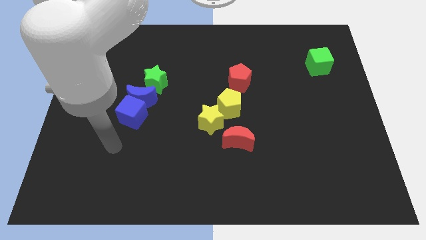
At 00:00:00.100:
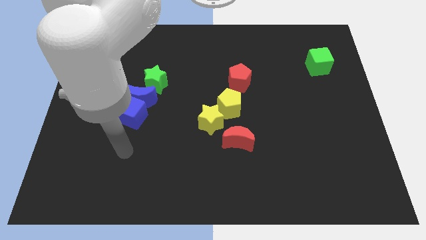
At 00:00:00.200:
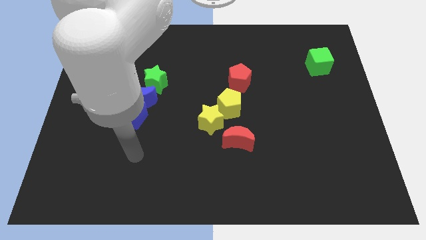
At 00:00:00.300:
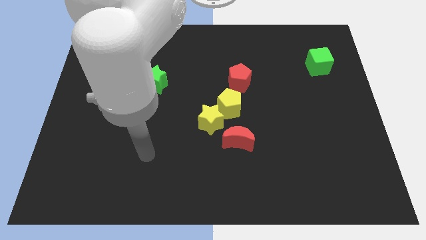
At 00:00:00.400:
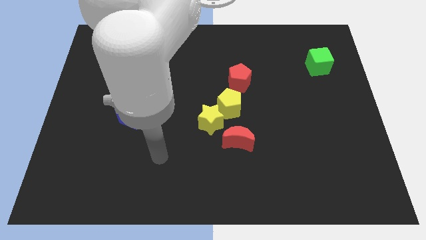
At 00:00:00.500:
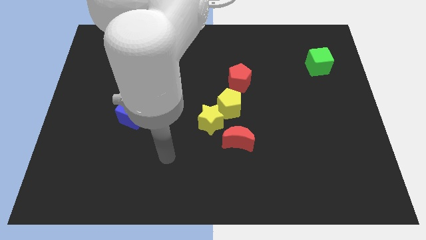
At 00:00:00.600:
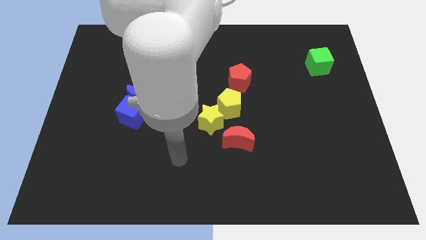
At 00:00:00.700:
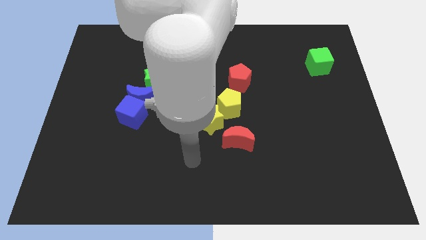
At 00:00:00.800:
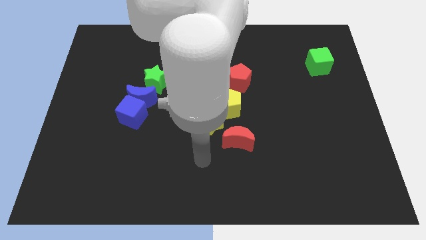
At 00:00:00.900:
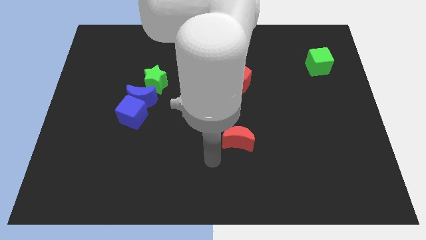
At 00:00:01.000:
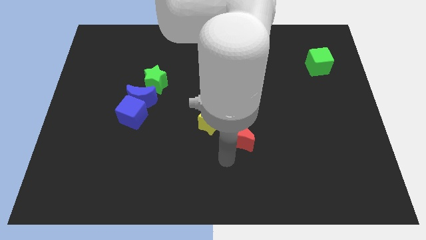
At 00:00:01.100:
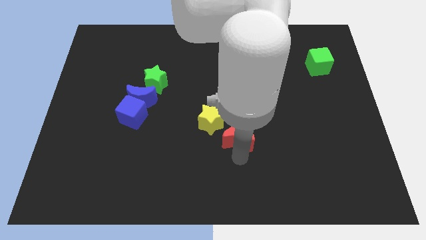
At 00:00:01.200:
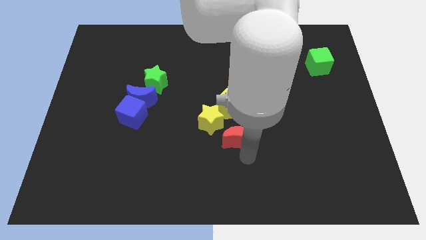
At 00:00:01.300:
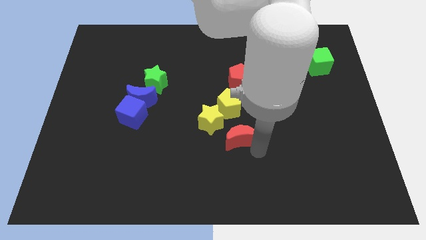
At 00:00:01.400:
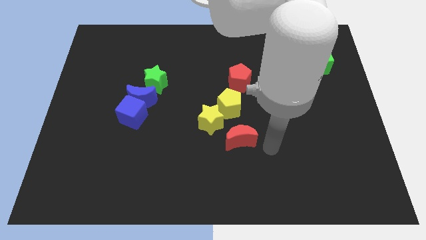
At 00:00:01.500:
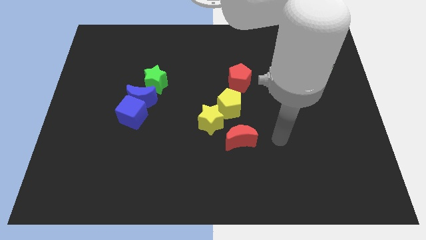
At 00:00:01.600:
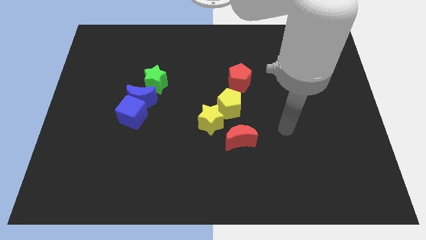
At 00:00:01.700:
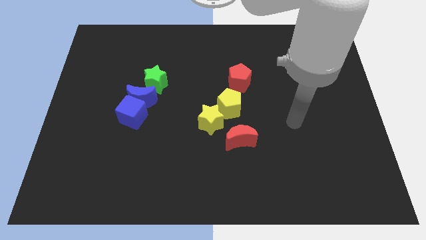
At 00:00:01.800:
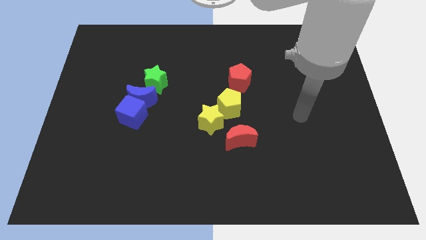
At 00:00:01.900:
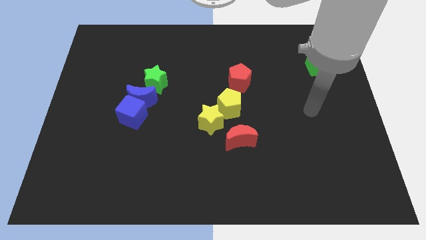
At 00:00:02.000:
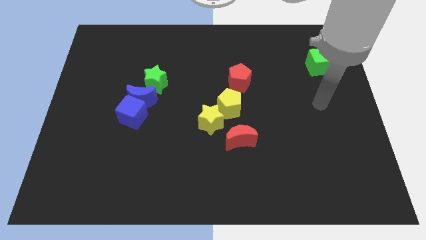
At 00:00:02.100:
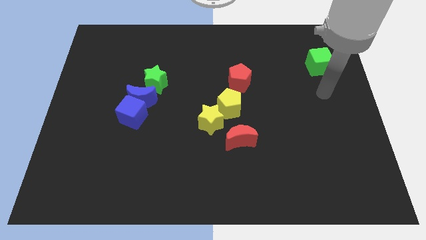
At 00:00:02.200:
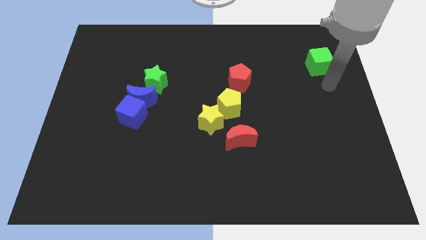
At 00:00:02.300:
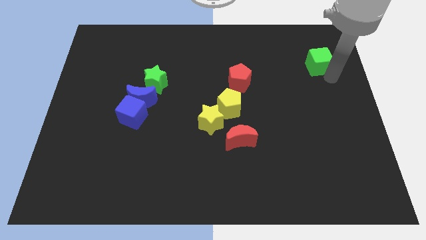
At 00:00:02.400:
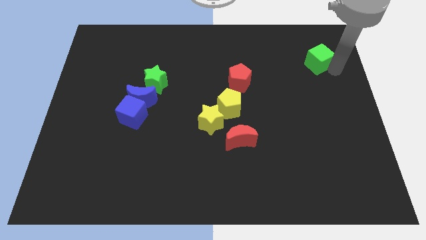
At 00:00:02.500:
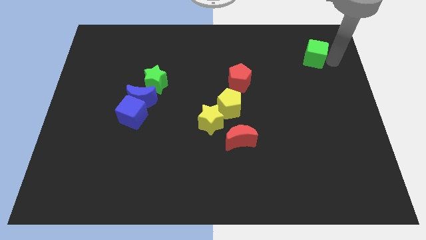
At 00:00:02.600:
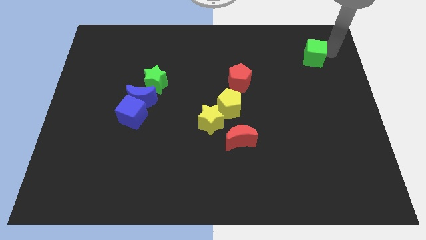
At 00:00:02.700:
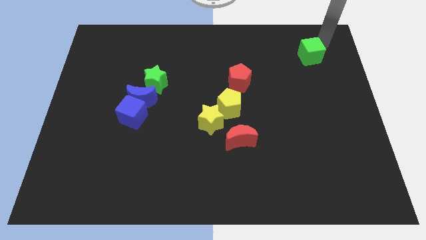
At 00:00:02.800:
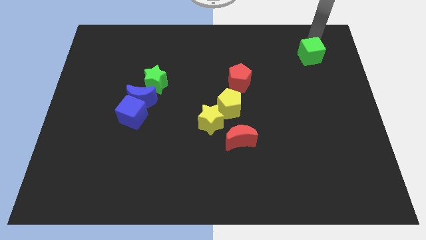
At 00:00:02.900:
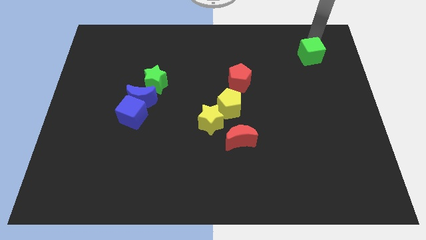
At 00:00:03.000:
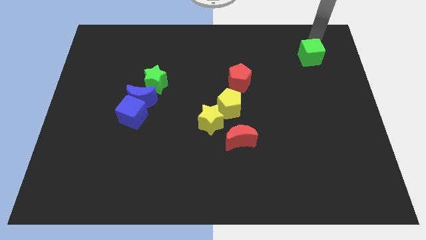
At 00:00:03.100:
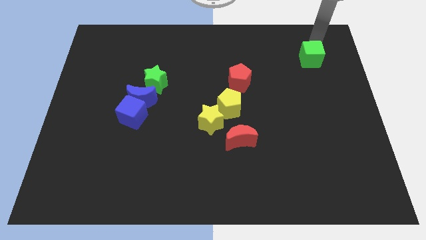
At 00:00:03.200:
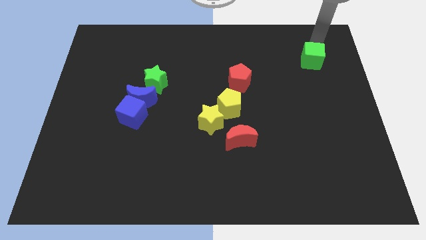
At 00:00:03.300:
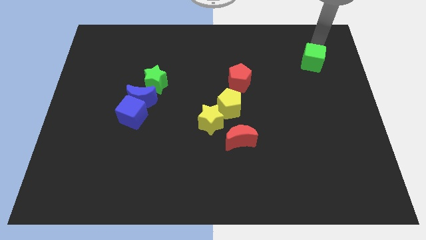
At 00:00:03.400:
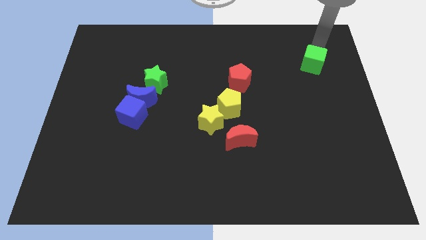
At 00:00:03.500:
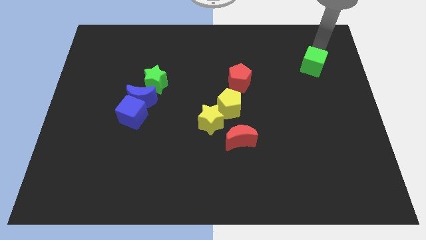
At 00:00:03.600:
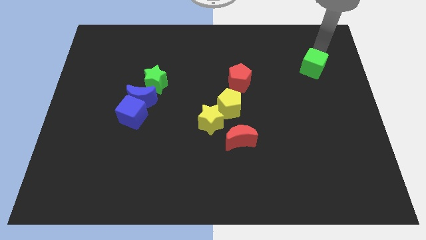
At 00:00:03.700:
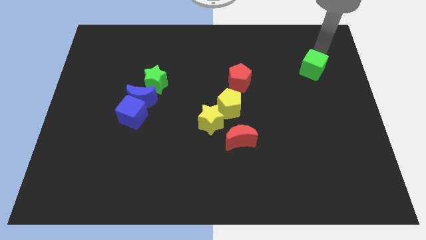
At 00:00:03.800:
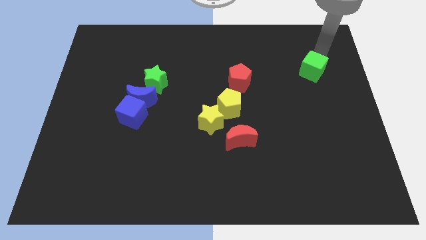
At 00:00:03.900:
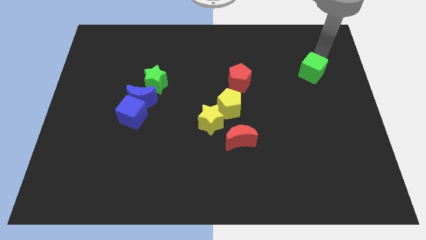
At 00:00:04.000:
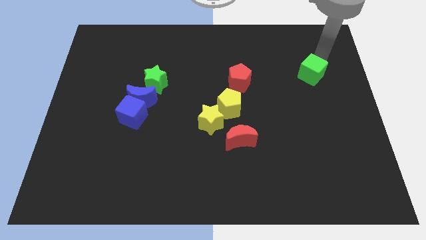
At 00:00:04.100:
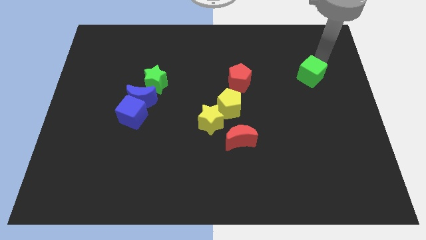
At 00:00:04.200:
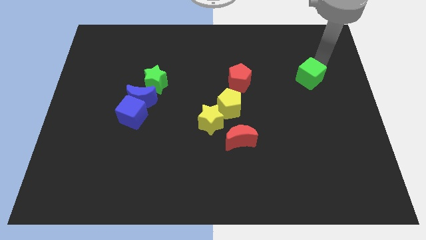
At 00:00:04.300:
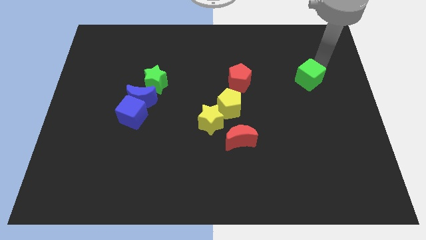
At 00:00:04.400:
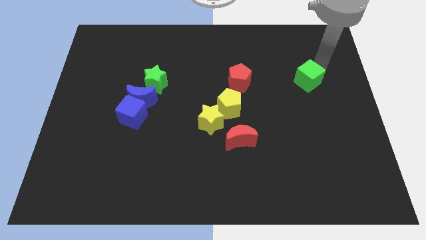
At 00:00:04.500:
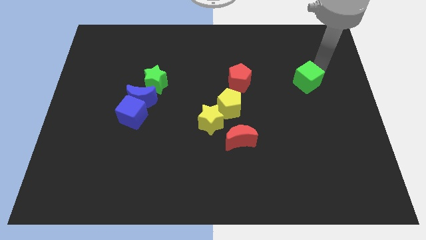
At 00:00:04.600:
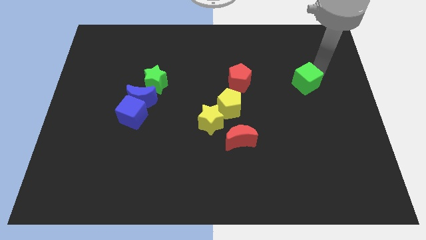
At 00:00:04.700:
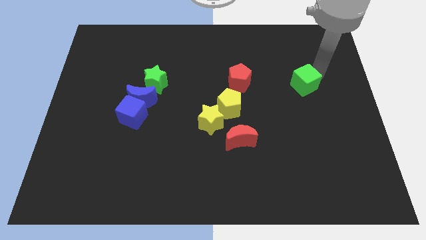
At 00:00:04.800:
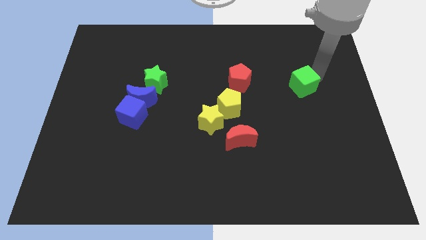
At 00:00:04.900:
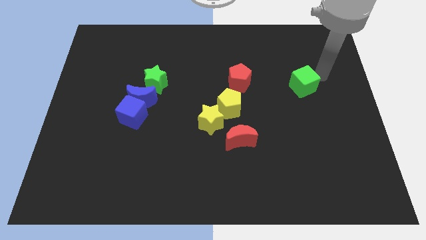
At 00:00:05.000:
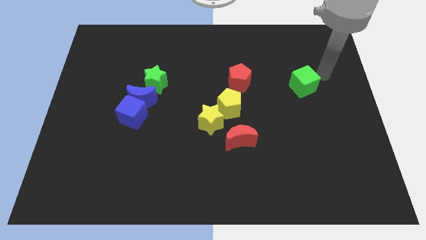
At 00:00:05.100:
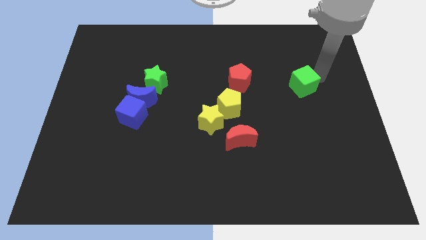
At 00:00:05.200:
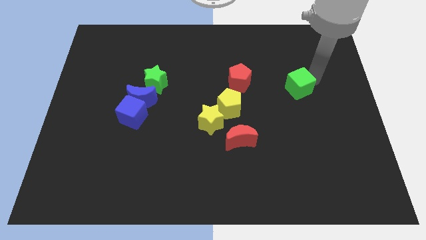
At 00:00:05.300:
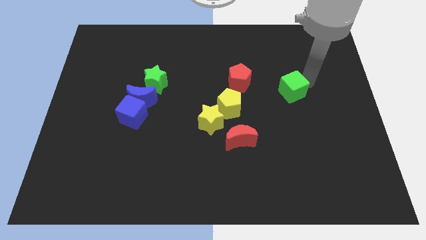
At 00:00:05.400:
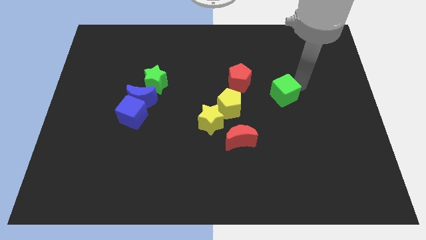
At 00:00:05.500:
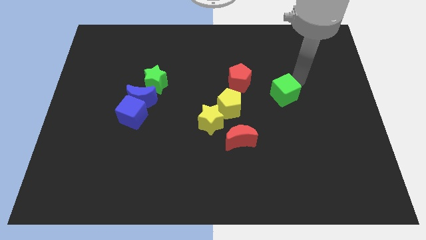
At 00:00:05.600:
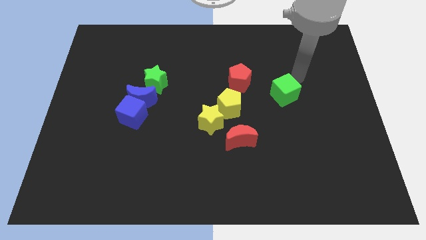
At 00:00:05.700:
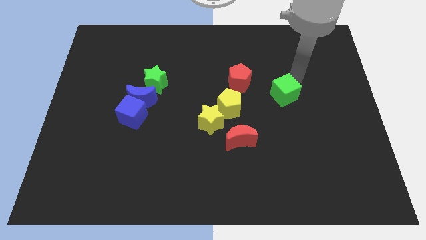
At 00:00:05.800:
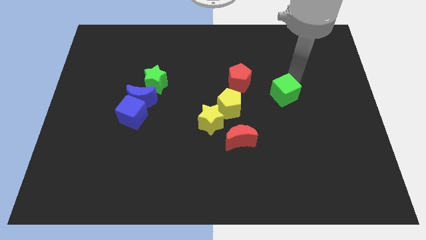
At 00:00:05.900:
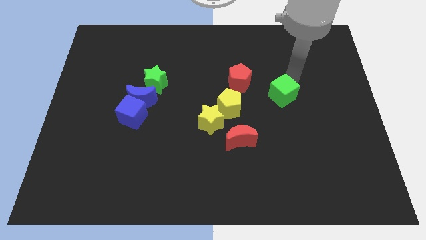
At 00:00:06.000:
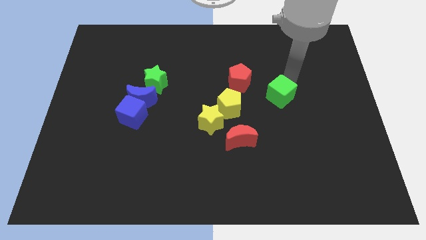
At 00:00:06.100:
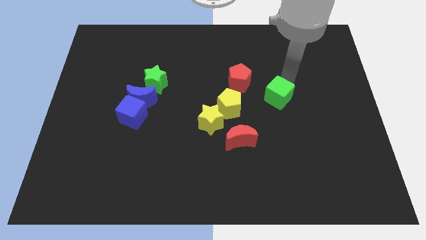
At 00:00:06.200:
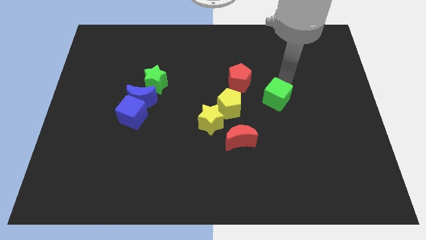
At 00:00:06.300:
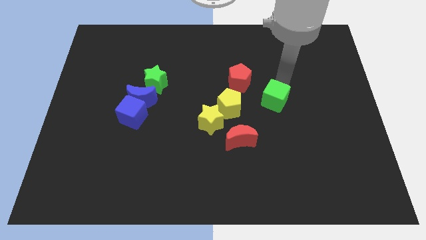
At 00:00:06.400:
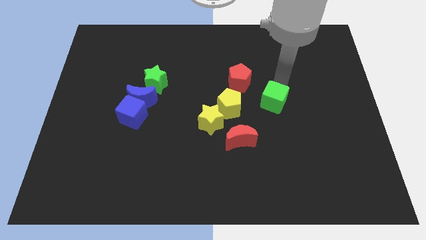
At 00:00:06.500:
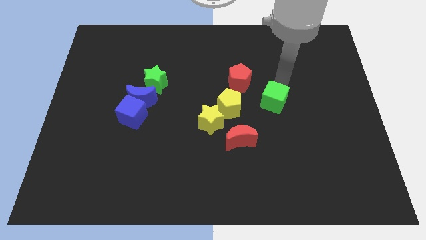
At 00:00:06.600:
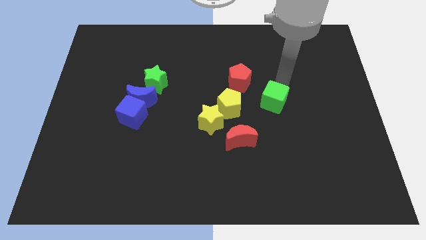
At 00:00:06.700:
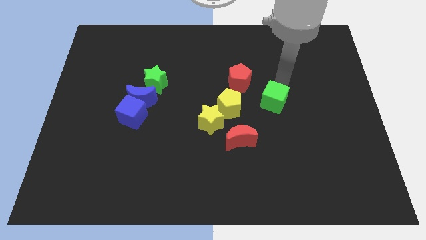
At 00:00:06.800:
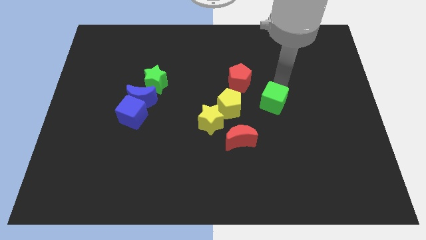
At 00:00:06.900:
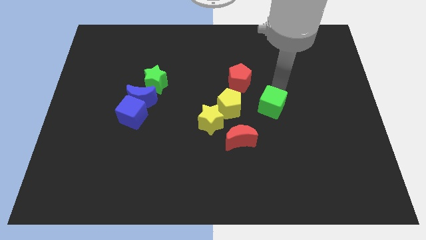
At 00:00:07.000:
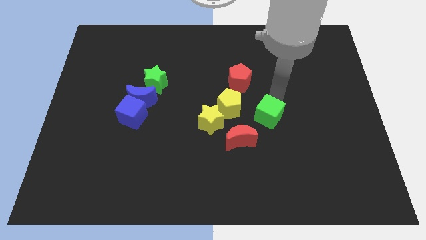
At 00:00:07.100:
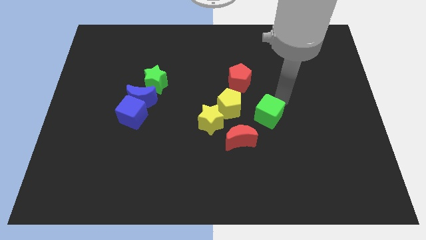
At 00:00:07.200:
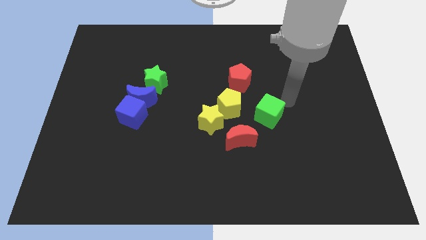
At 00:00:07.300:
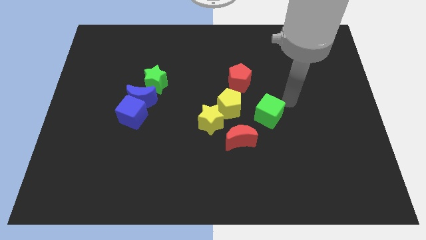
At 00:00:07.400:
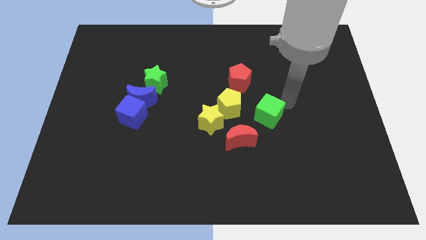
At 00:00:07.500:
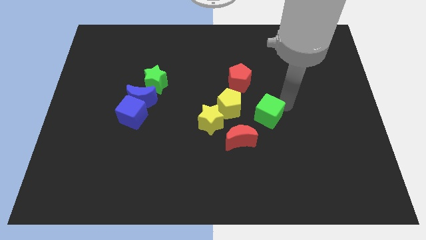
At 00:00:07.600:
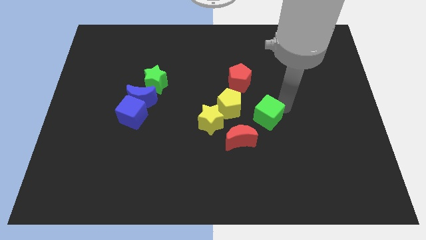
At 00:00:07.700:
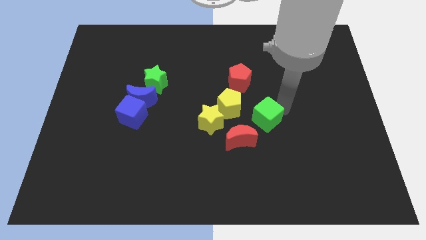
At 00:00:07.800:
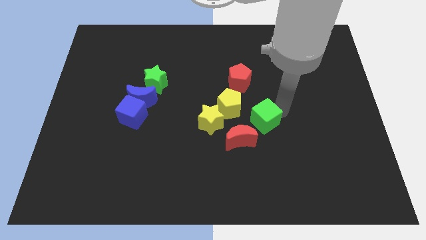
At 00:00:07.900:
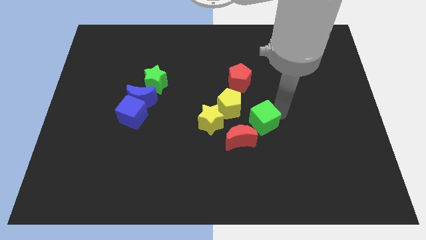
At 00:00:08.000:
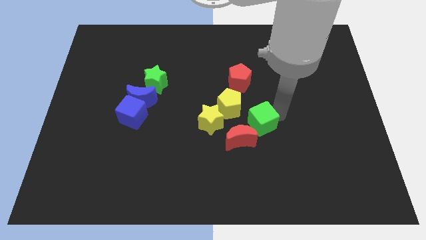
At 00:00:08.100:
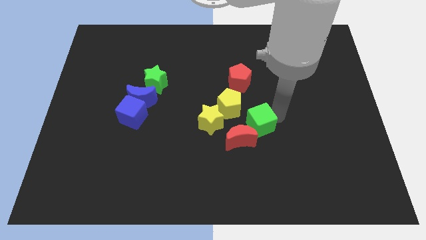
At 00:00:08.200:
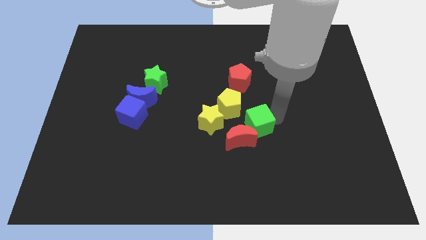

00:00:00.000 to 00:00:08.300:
slide the green cube to the red moon
